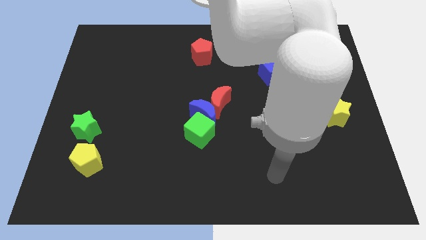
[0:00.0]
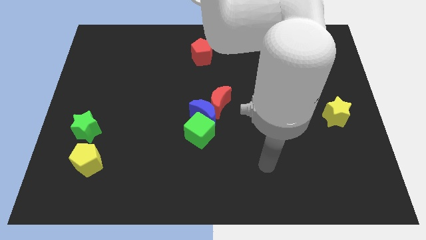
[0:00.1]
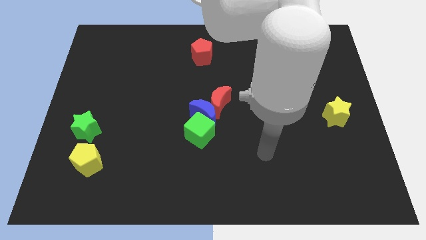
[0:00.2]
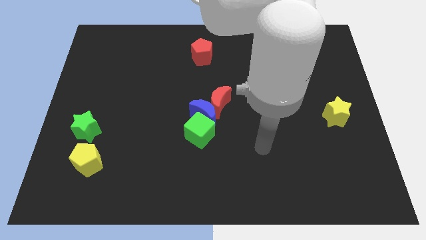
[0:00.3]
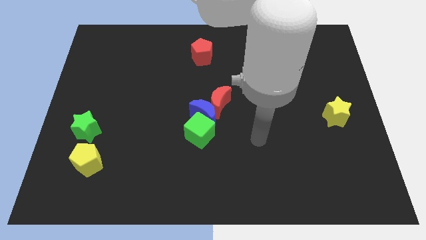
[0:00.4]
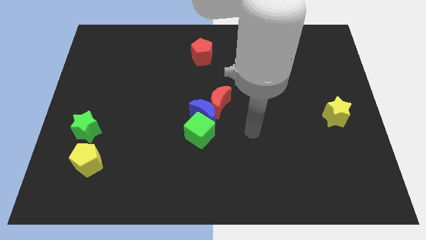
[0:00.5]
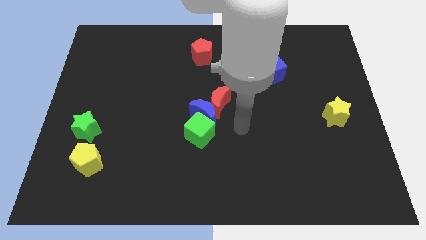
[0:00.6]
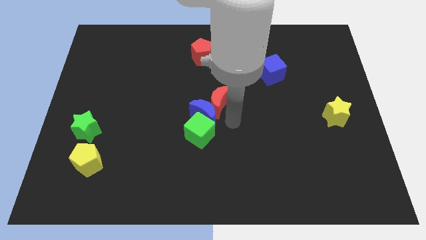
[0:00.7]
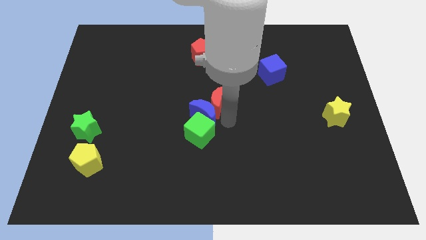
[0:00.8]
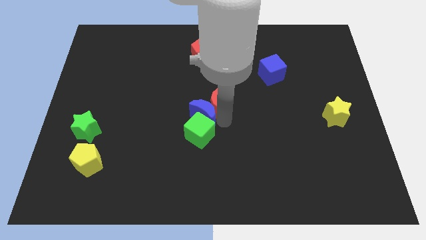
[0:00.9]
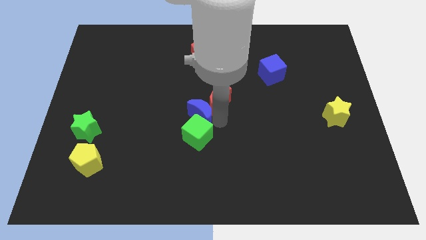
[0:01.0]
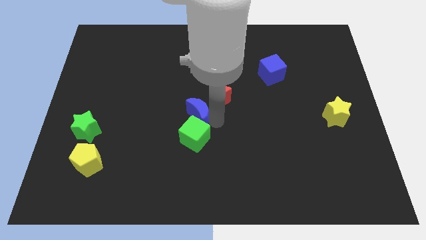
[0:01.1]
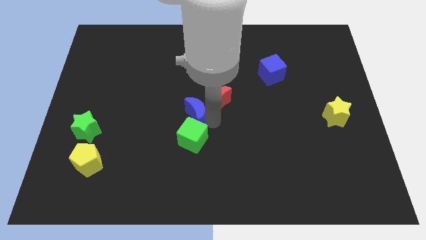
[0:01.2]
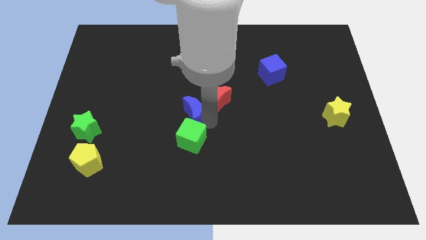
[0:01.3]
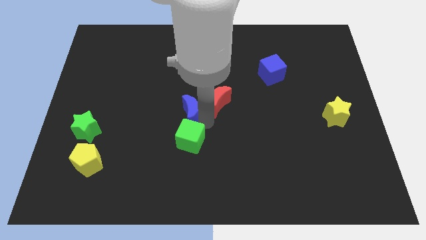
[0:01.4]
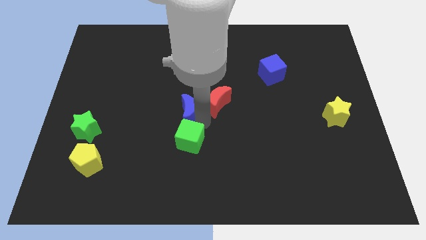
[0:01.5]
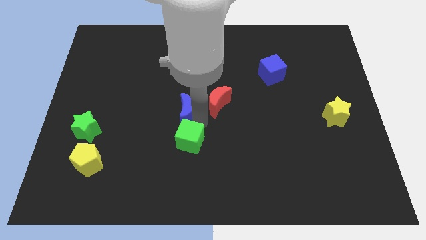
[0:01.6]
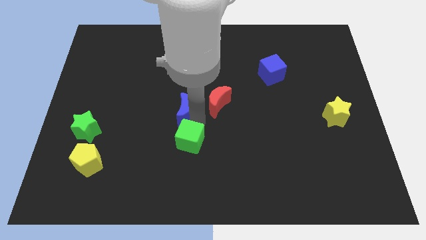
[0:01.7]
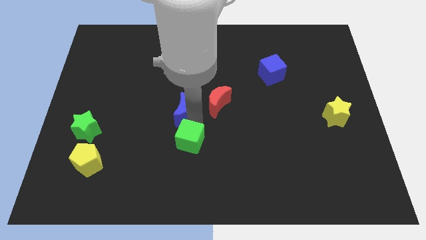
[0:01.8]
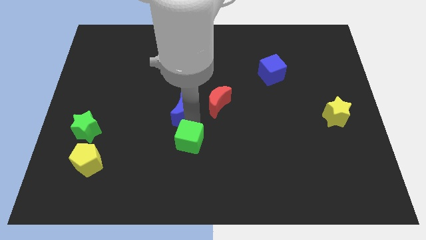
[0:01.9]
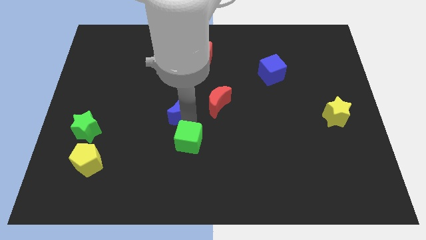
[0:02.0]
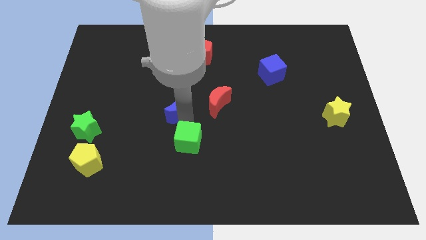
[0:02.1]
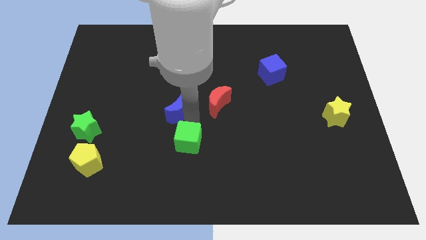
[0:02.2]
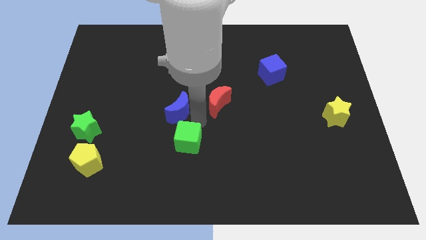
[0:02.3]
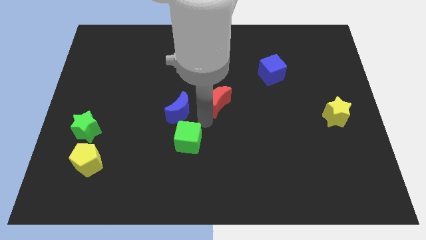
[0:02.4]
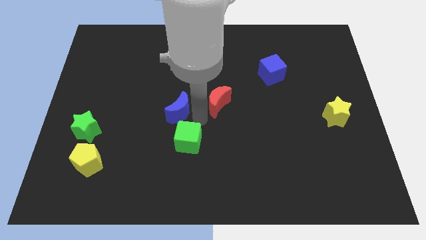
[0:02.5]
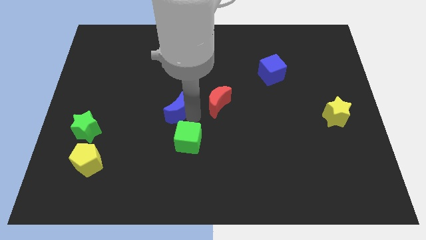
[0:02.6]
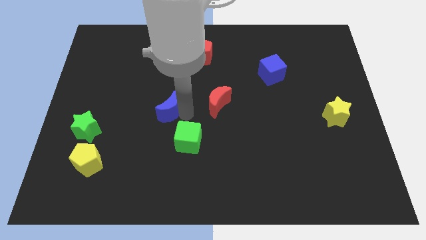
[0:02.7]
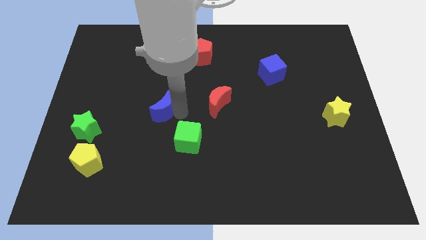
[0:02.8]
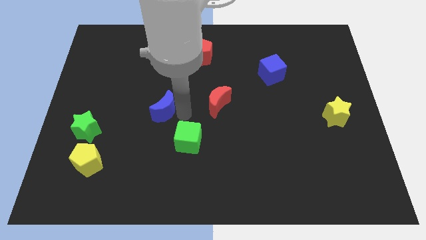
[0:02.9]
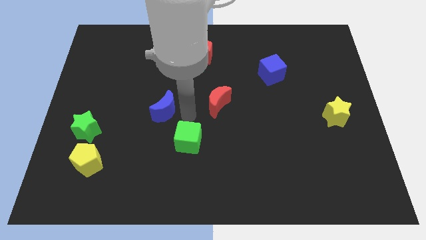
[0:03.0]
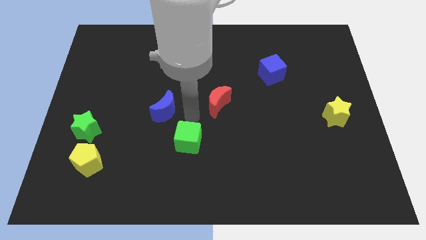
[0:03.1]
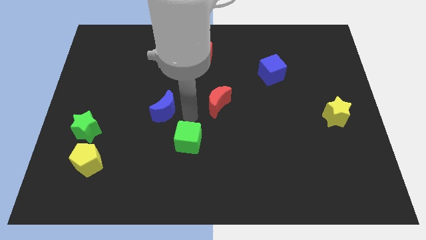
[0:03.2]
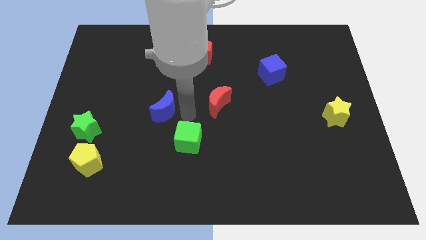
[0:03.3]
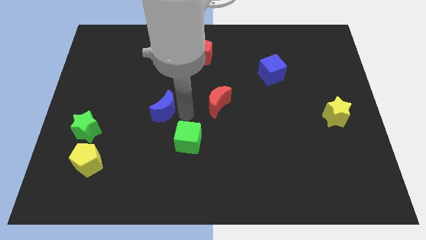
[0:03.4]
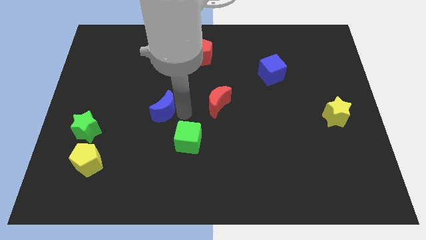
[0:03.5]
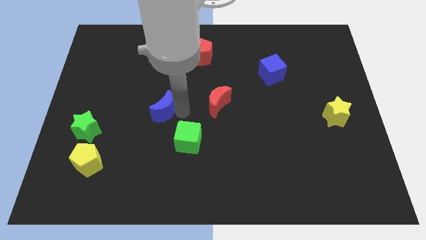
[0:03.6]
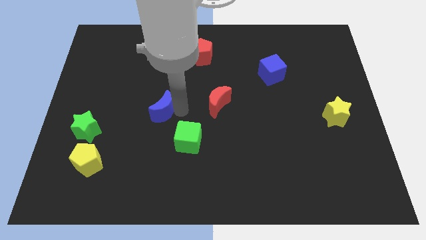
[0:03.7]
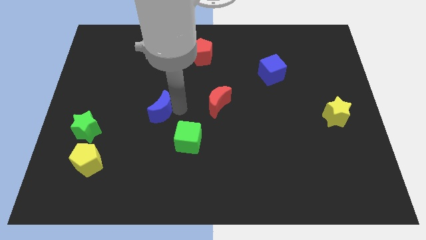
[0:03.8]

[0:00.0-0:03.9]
move the blue moon away from the red moon and green cube

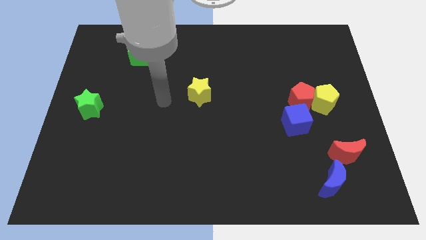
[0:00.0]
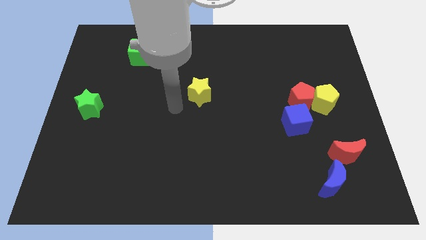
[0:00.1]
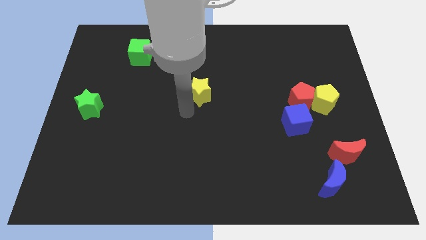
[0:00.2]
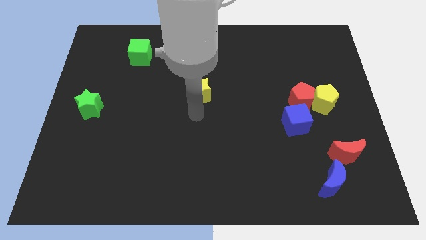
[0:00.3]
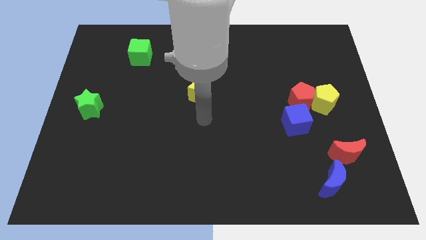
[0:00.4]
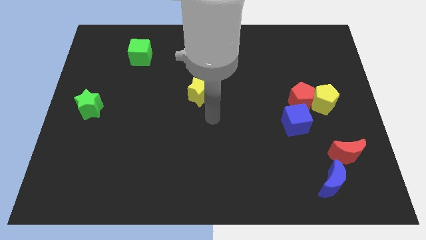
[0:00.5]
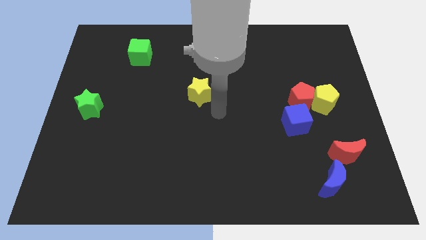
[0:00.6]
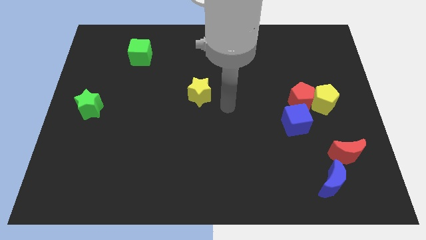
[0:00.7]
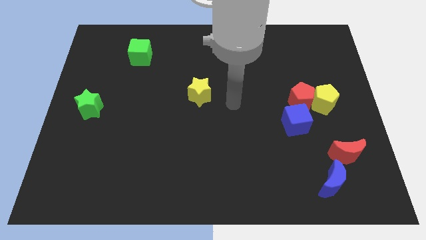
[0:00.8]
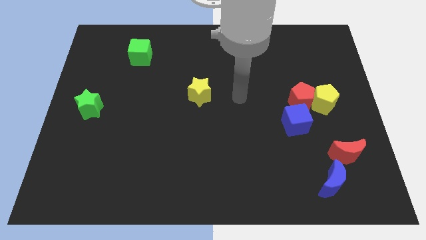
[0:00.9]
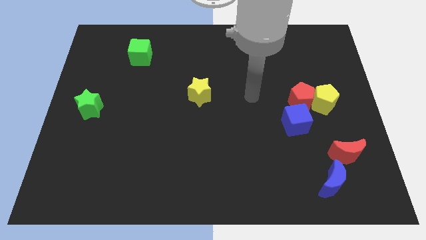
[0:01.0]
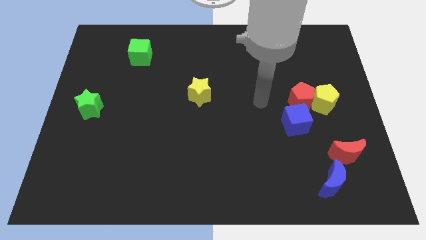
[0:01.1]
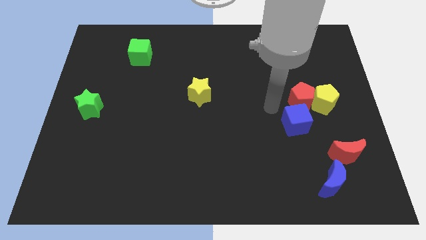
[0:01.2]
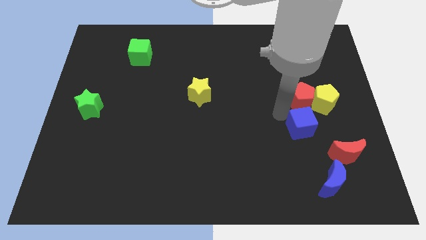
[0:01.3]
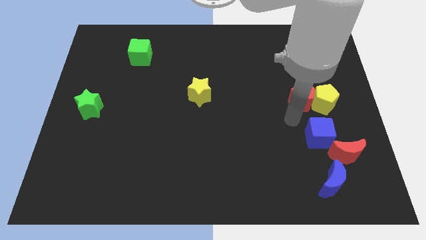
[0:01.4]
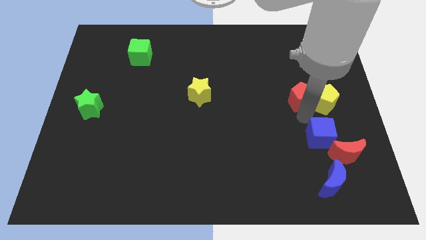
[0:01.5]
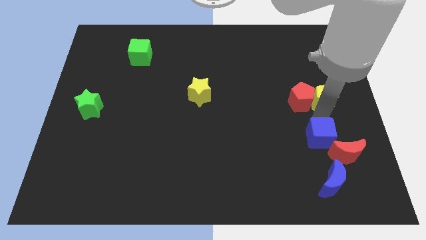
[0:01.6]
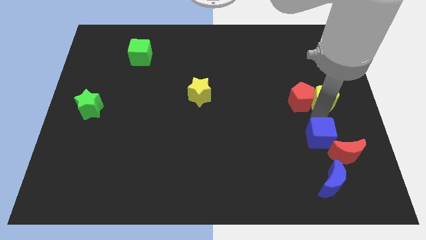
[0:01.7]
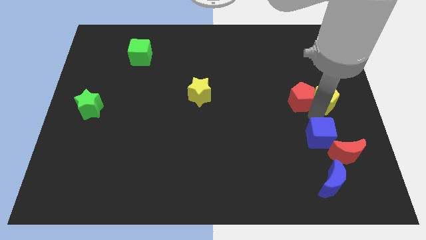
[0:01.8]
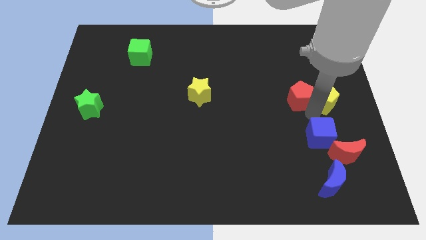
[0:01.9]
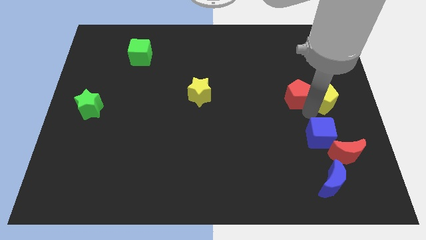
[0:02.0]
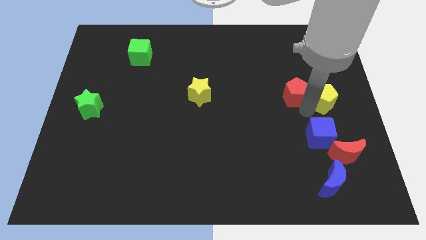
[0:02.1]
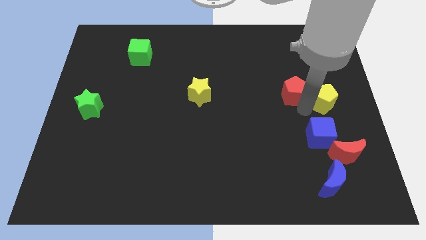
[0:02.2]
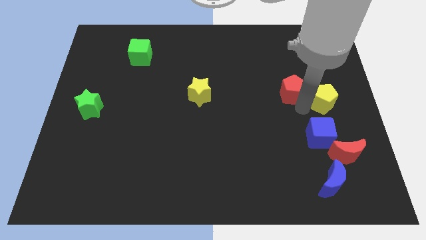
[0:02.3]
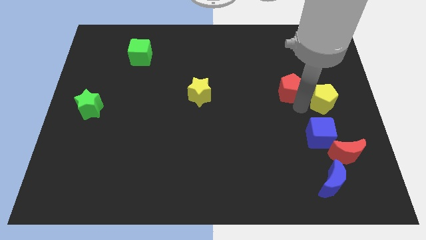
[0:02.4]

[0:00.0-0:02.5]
move the red pentagon away from the yellow pentagon and blue cube

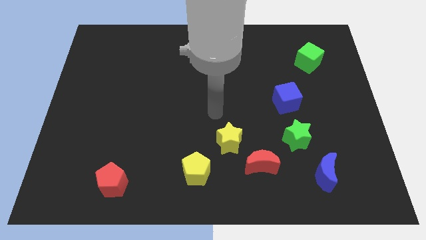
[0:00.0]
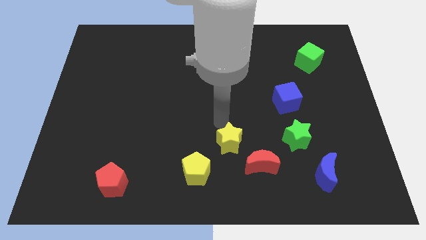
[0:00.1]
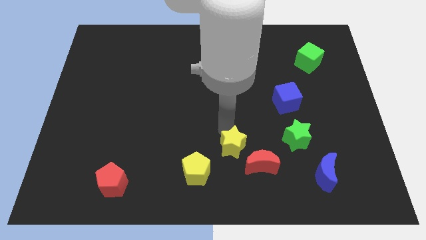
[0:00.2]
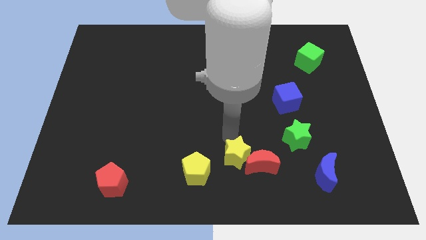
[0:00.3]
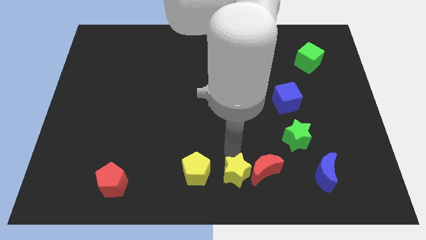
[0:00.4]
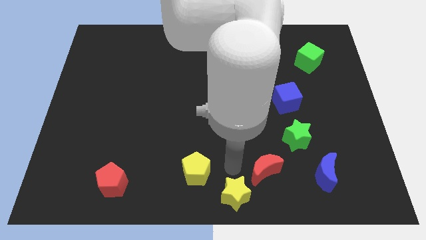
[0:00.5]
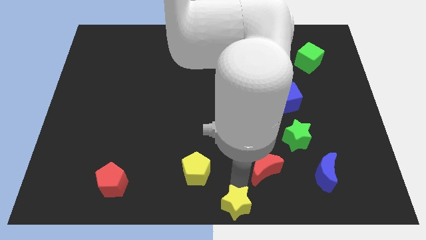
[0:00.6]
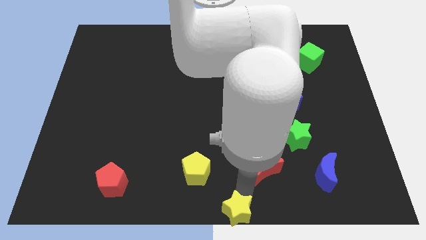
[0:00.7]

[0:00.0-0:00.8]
pull the red moon apart from the yellow star

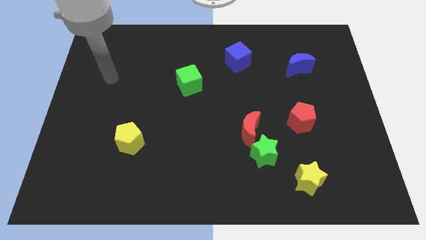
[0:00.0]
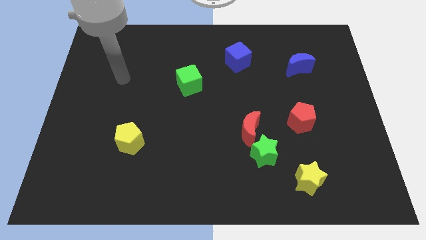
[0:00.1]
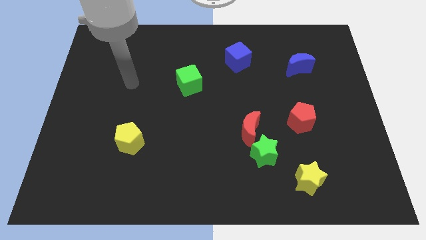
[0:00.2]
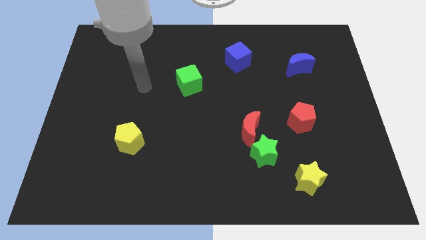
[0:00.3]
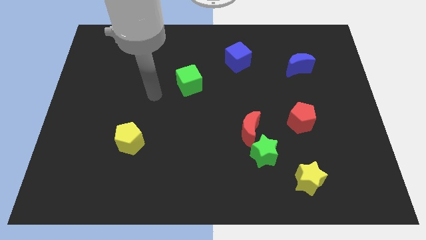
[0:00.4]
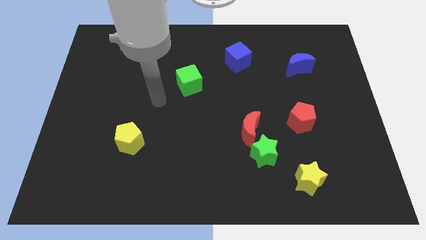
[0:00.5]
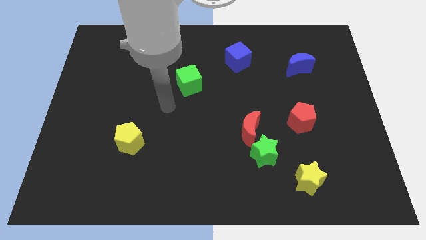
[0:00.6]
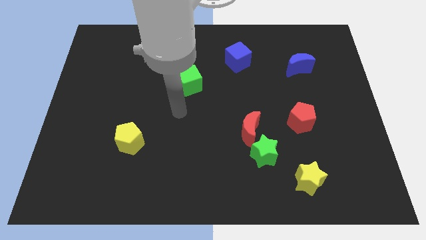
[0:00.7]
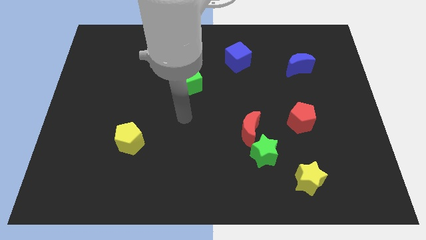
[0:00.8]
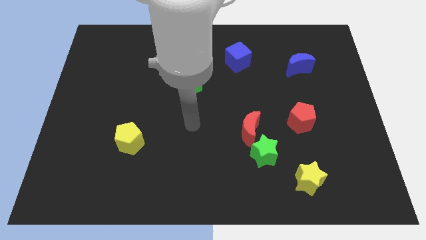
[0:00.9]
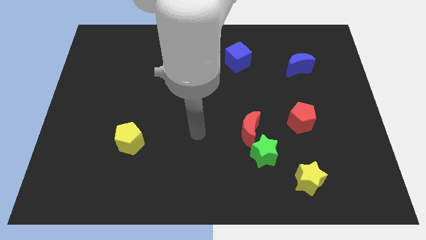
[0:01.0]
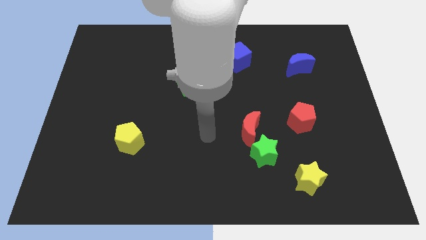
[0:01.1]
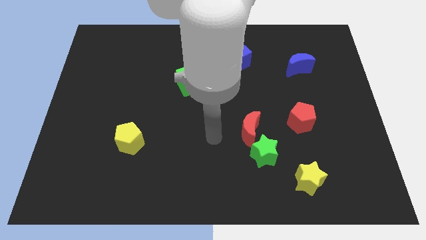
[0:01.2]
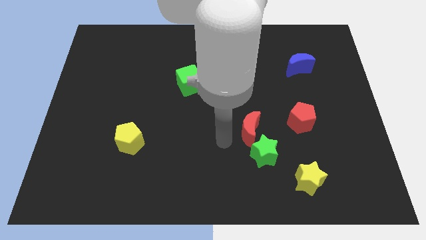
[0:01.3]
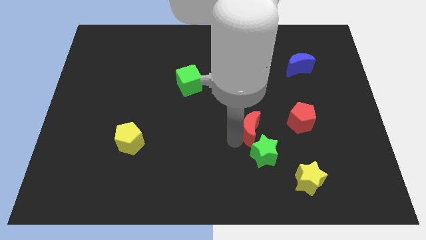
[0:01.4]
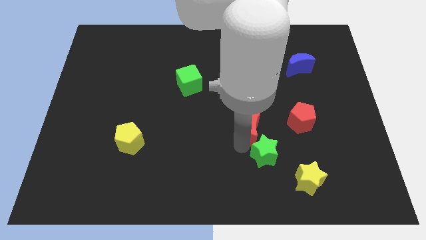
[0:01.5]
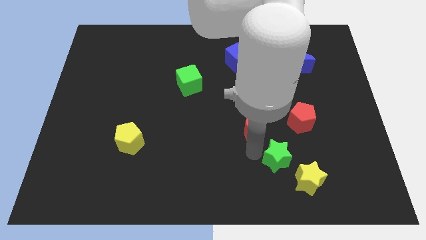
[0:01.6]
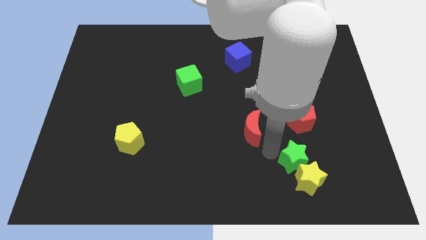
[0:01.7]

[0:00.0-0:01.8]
pull the red moon apart from the green star

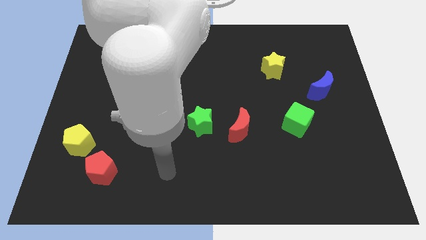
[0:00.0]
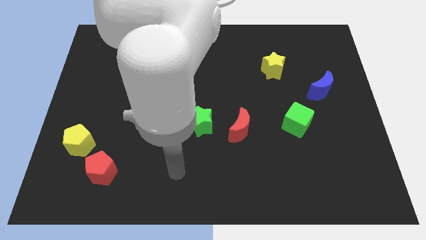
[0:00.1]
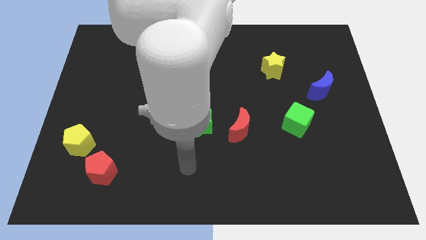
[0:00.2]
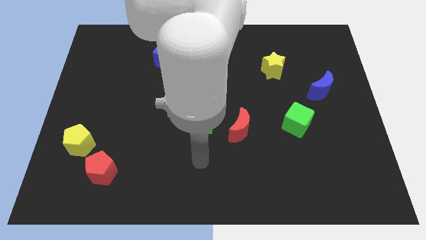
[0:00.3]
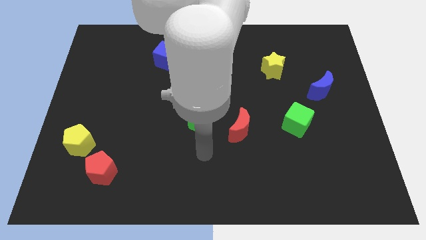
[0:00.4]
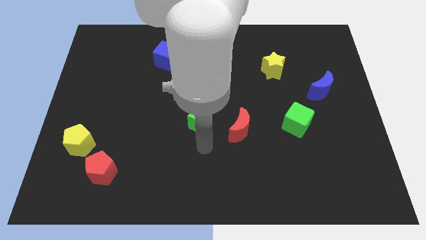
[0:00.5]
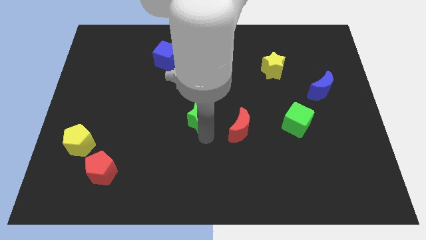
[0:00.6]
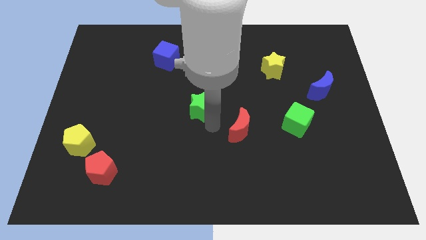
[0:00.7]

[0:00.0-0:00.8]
move the red moon away from the green star
